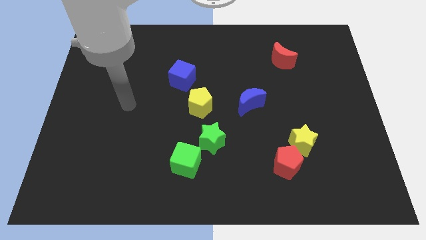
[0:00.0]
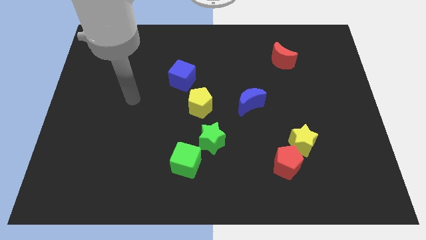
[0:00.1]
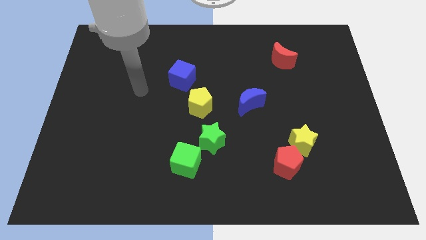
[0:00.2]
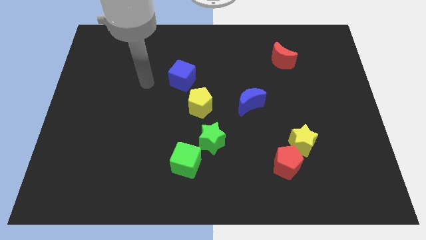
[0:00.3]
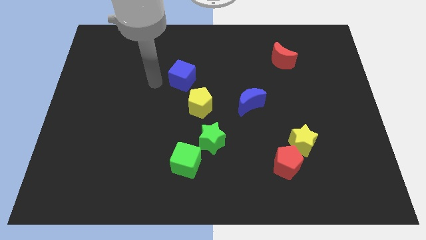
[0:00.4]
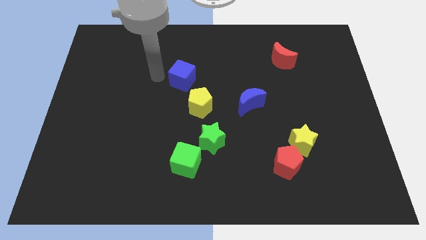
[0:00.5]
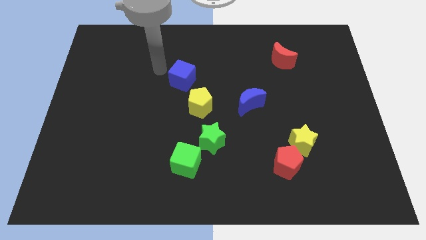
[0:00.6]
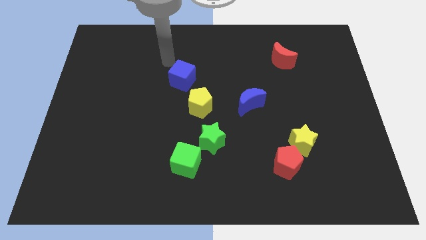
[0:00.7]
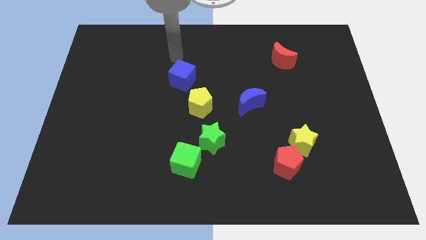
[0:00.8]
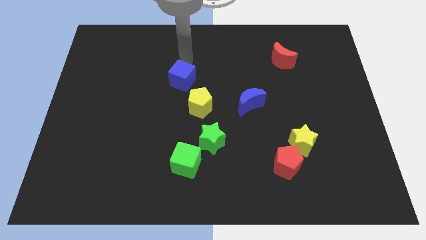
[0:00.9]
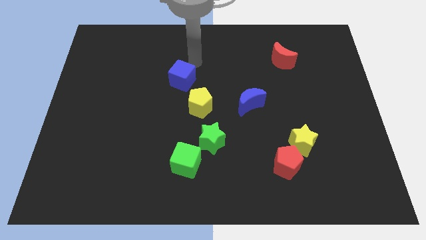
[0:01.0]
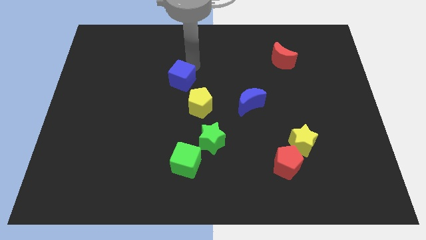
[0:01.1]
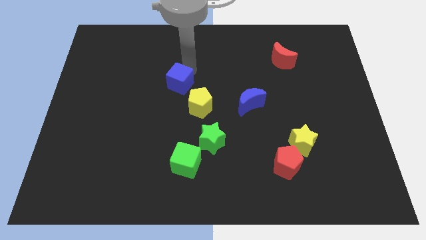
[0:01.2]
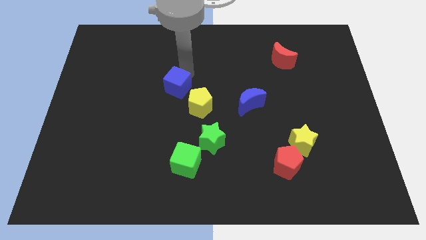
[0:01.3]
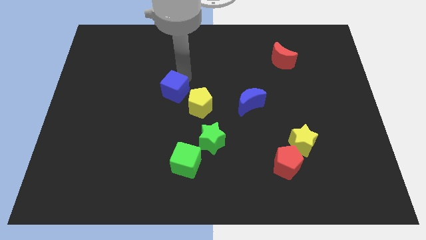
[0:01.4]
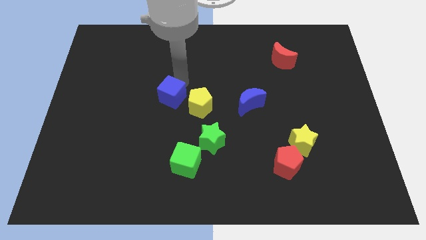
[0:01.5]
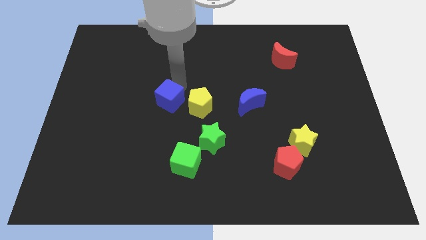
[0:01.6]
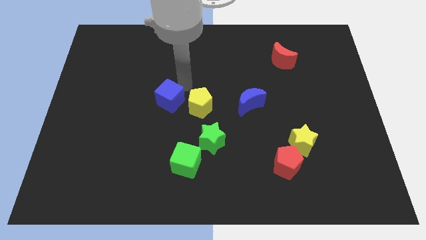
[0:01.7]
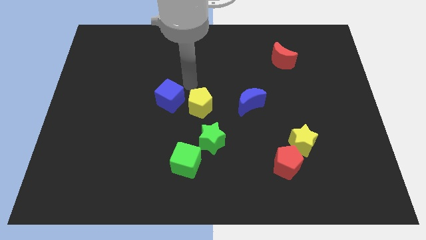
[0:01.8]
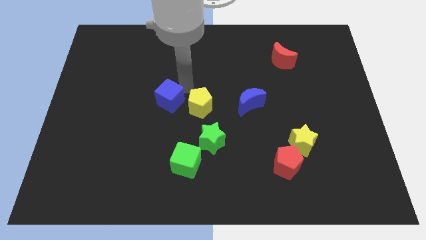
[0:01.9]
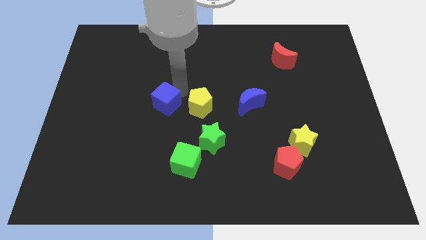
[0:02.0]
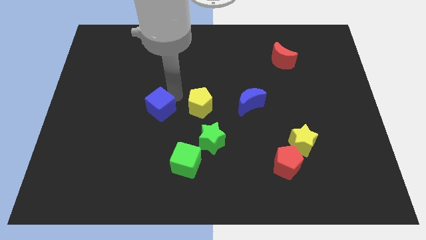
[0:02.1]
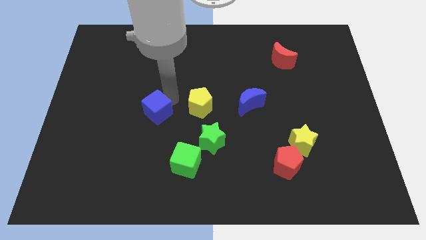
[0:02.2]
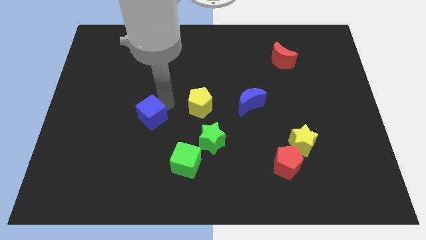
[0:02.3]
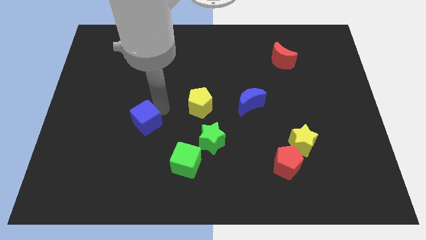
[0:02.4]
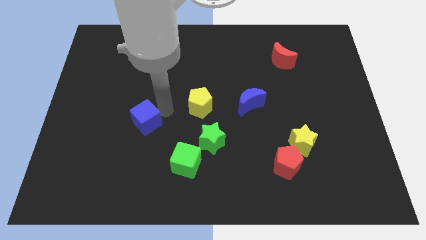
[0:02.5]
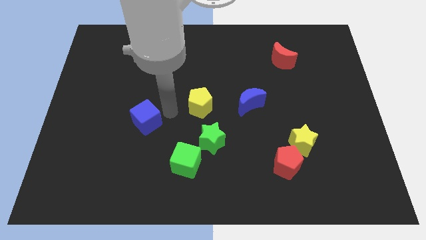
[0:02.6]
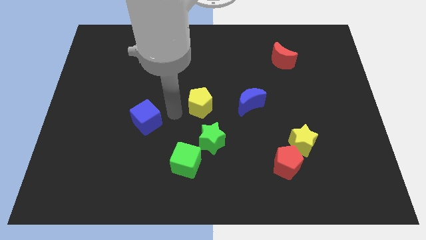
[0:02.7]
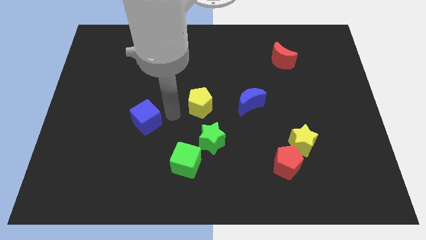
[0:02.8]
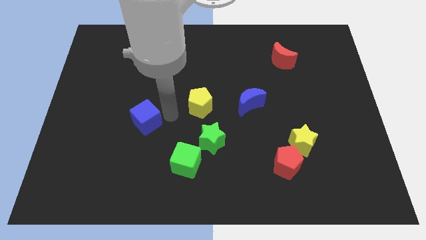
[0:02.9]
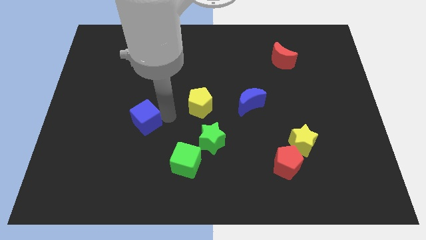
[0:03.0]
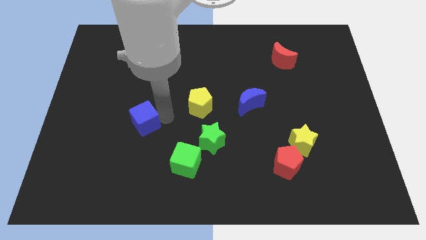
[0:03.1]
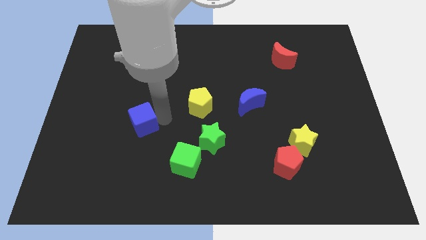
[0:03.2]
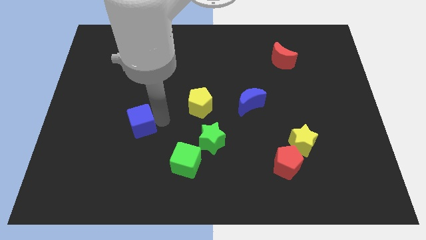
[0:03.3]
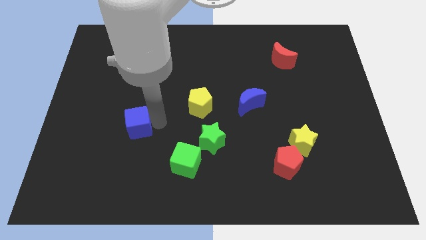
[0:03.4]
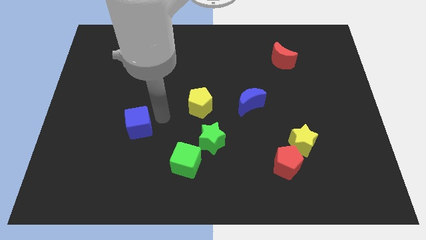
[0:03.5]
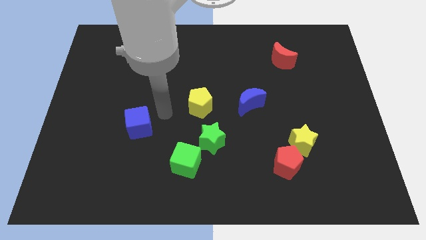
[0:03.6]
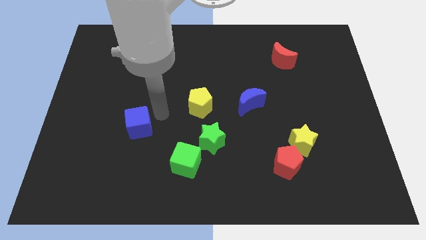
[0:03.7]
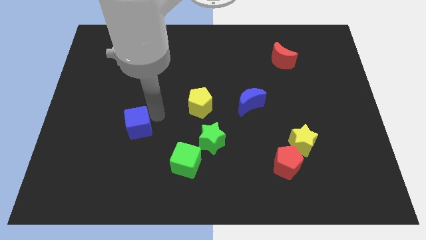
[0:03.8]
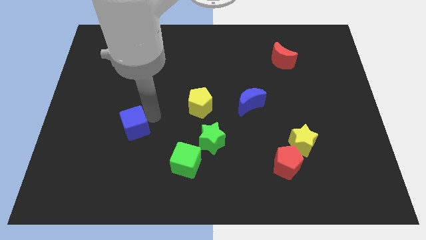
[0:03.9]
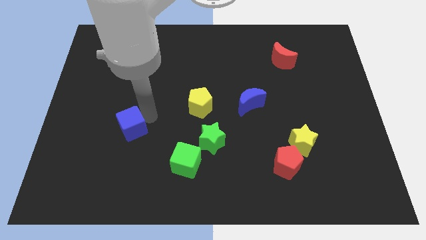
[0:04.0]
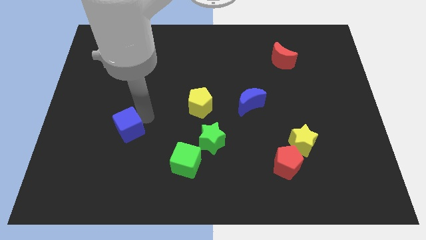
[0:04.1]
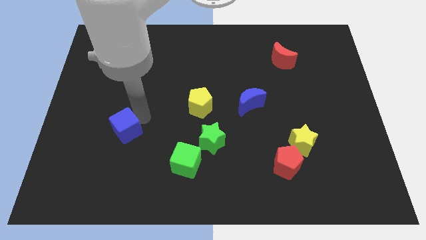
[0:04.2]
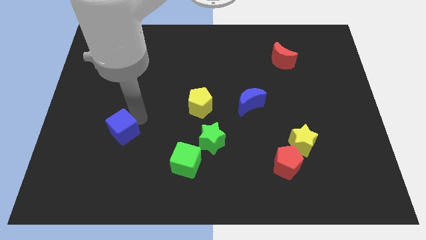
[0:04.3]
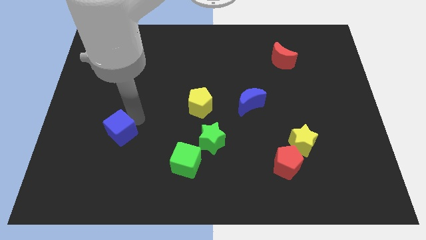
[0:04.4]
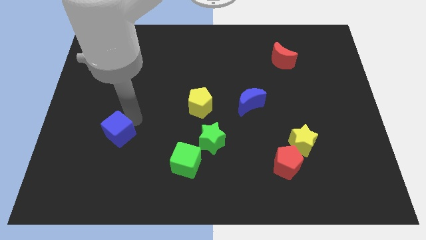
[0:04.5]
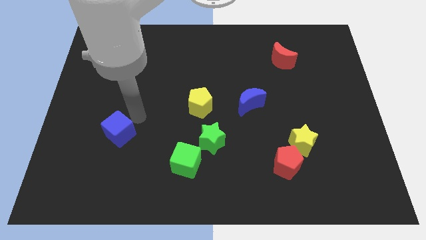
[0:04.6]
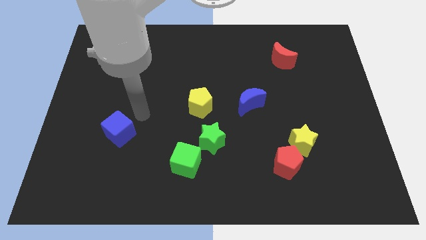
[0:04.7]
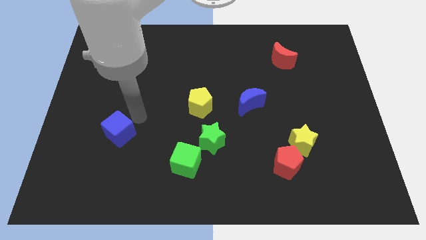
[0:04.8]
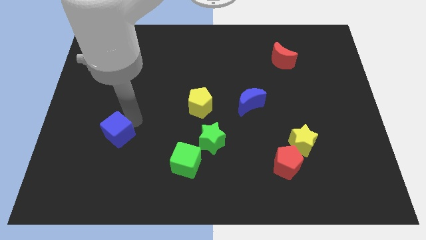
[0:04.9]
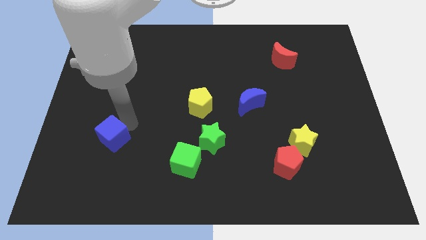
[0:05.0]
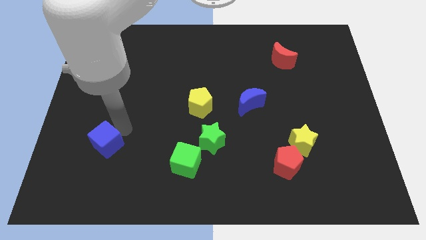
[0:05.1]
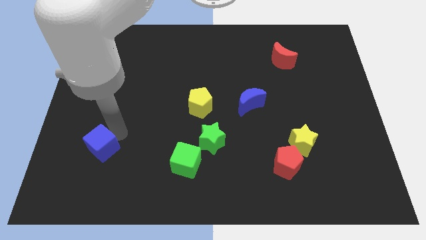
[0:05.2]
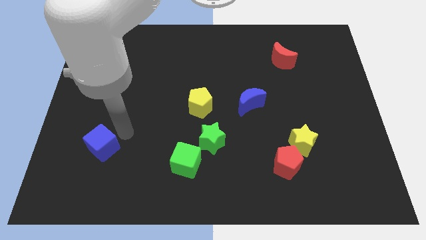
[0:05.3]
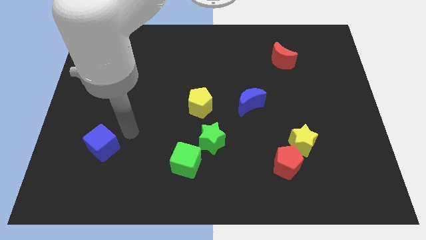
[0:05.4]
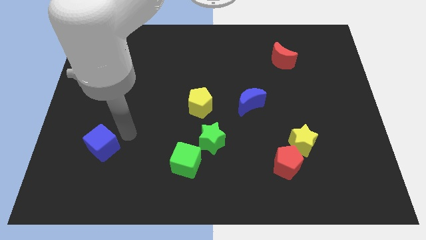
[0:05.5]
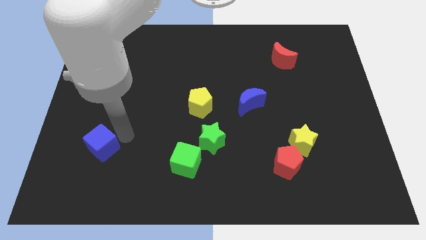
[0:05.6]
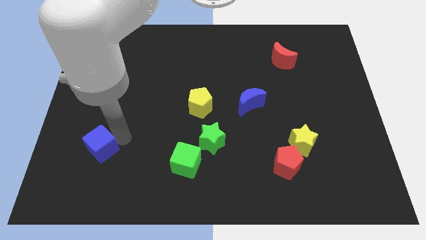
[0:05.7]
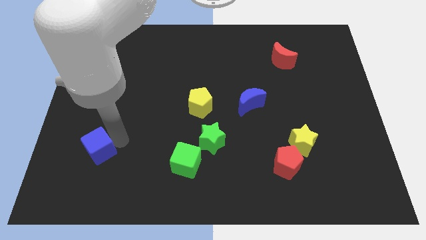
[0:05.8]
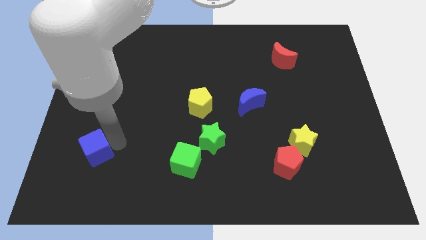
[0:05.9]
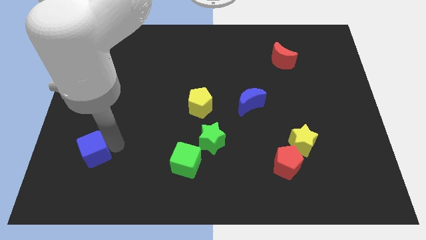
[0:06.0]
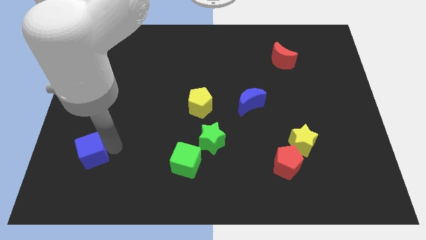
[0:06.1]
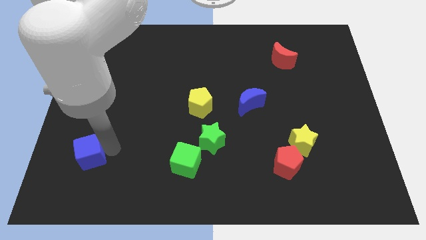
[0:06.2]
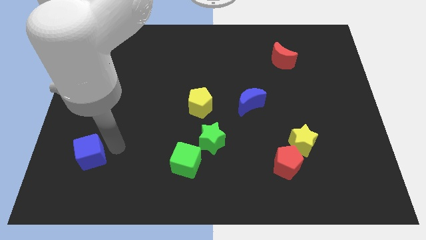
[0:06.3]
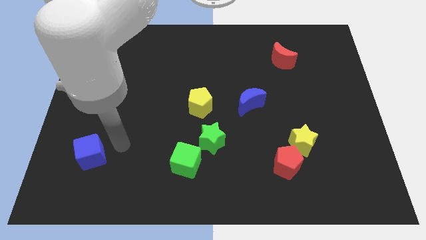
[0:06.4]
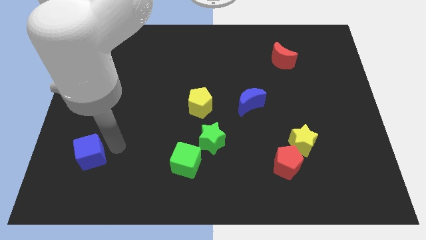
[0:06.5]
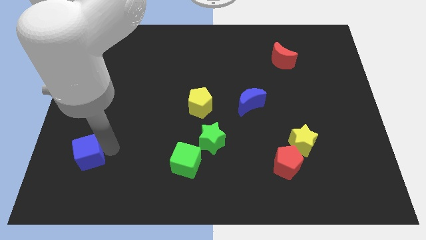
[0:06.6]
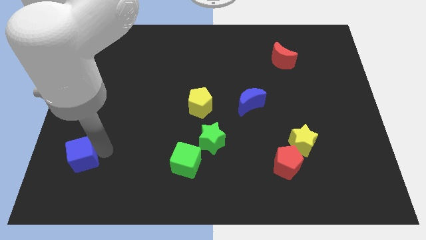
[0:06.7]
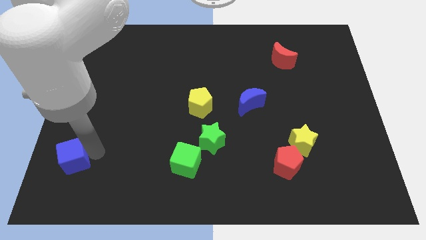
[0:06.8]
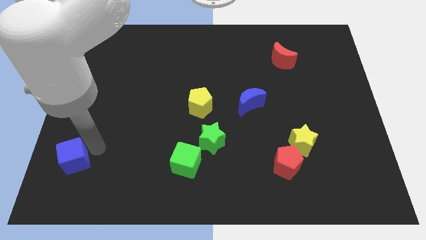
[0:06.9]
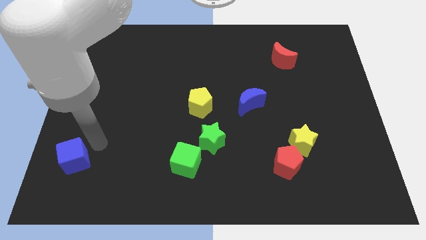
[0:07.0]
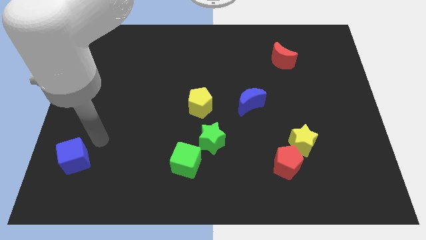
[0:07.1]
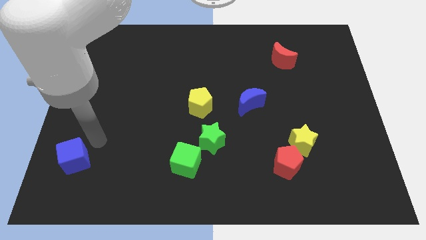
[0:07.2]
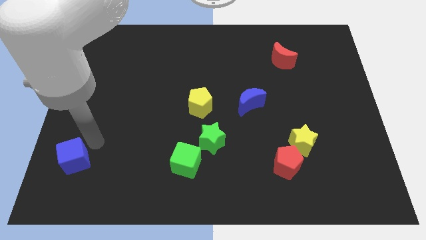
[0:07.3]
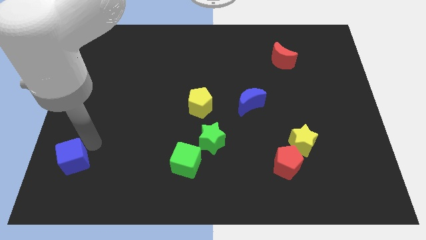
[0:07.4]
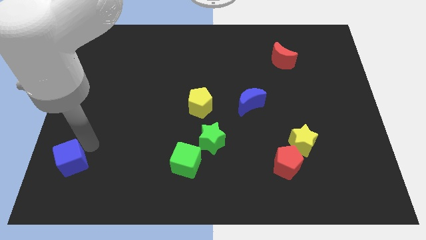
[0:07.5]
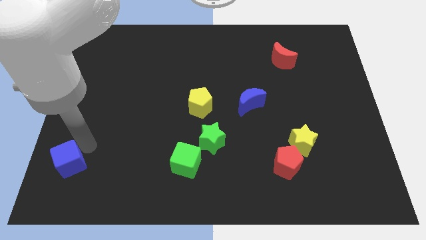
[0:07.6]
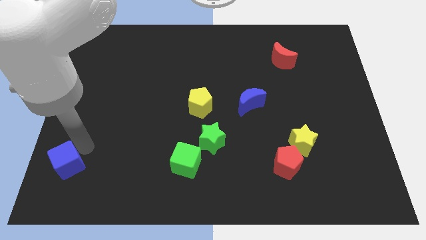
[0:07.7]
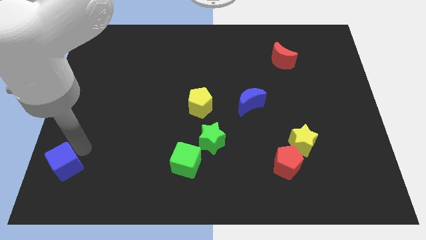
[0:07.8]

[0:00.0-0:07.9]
push the blue cube to the bottom left of the board
